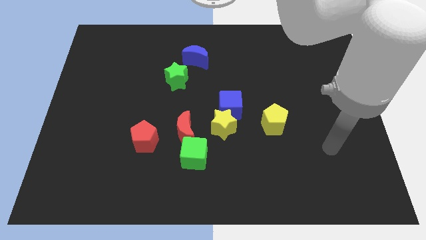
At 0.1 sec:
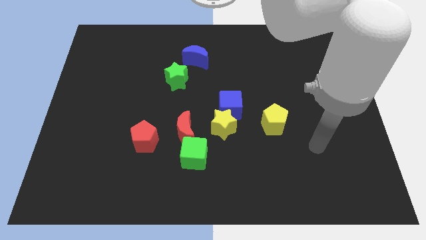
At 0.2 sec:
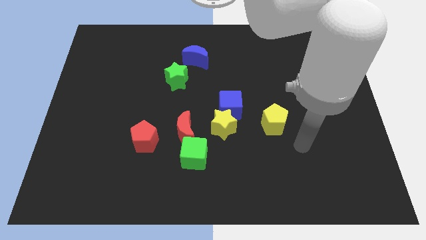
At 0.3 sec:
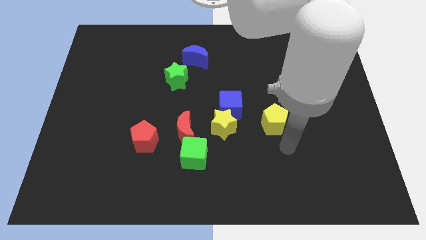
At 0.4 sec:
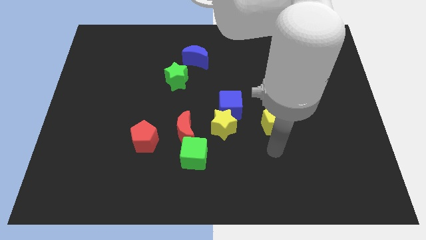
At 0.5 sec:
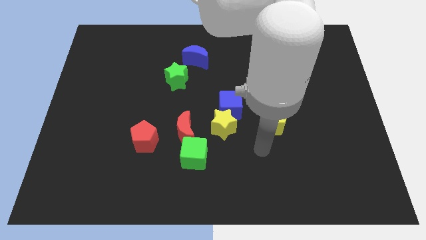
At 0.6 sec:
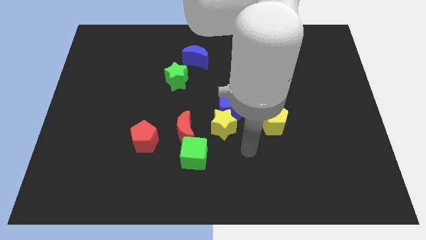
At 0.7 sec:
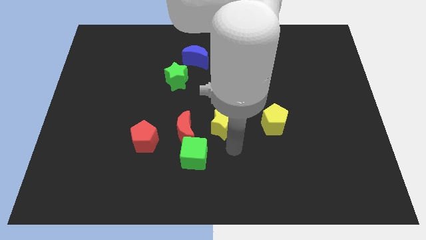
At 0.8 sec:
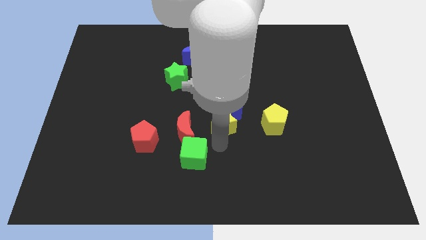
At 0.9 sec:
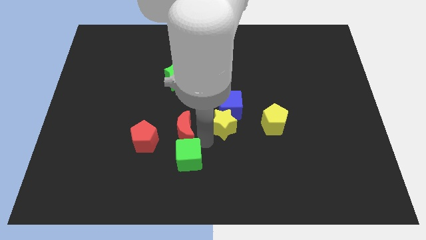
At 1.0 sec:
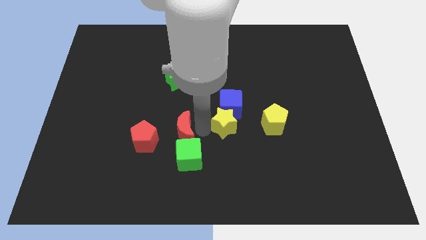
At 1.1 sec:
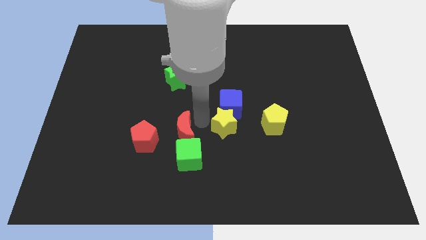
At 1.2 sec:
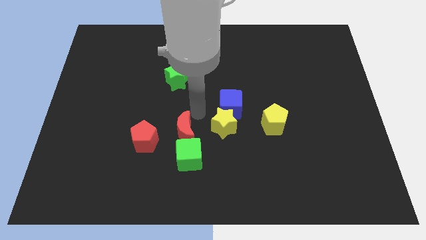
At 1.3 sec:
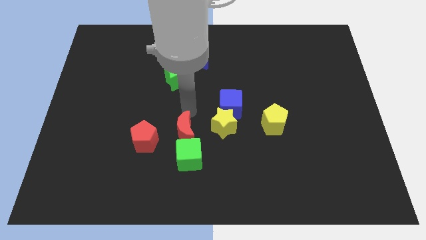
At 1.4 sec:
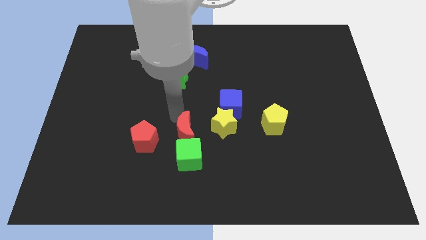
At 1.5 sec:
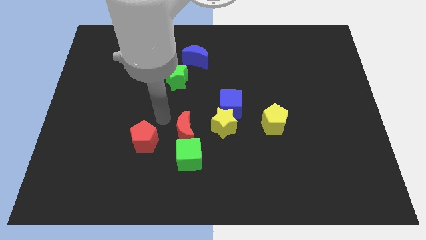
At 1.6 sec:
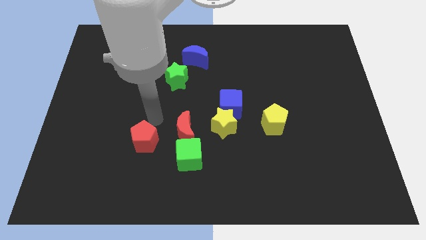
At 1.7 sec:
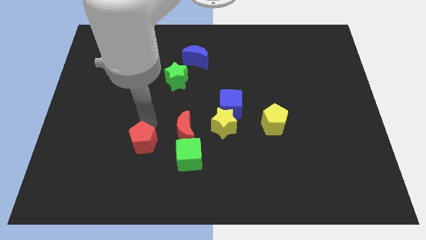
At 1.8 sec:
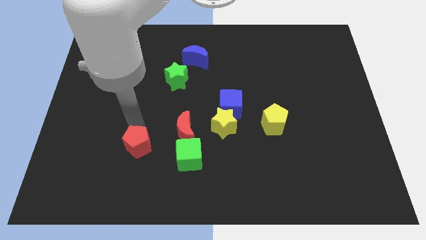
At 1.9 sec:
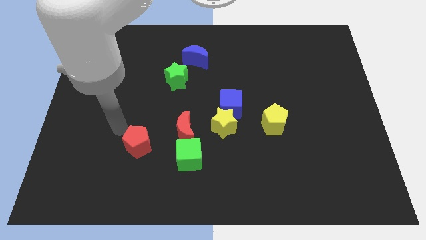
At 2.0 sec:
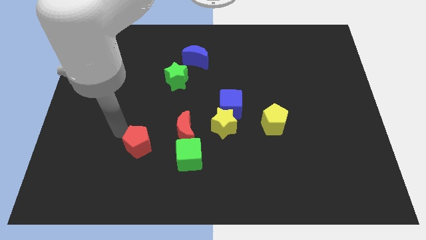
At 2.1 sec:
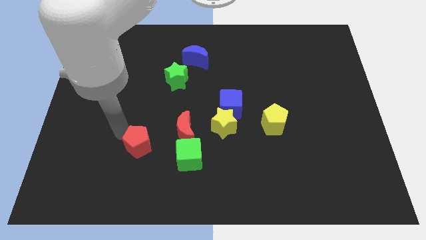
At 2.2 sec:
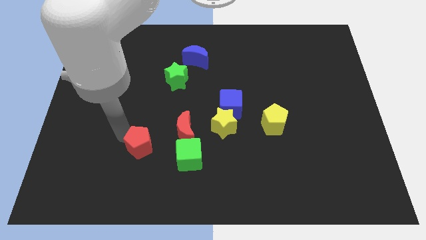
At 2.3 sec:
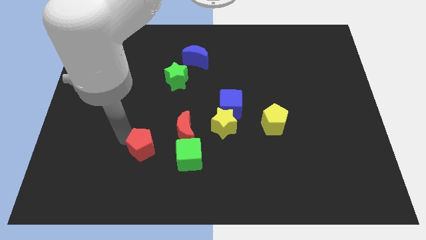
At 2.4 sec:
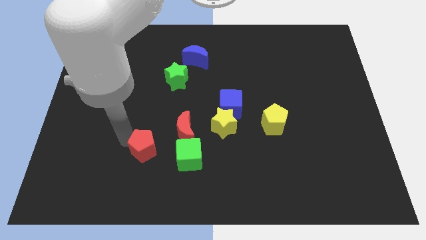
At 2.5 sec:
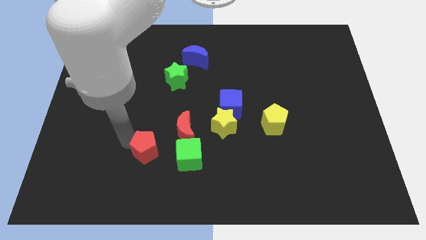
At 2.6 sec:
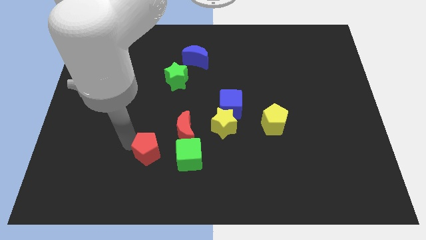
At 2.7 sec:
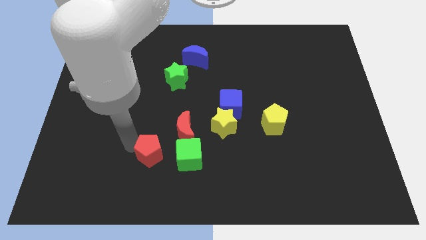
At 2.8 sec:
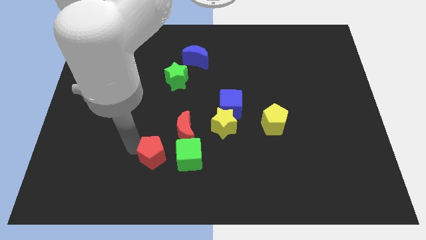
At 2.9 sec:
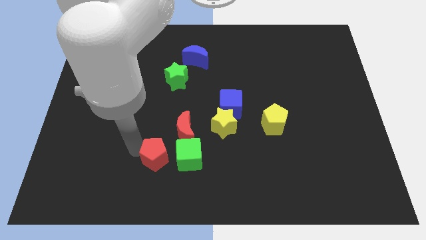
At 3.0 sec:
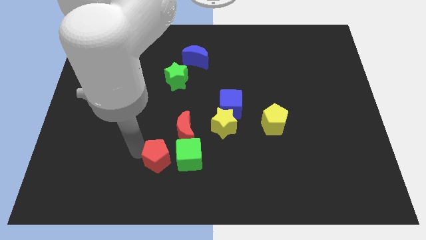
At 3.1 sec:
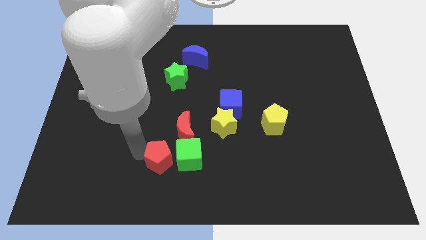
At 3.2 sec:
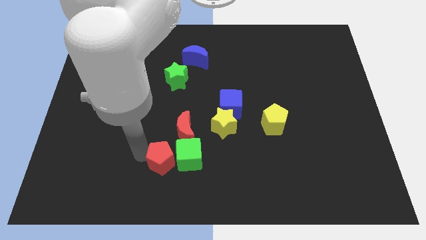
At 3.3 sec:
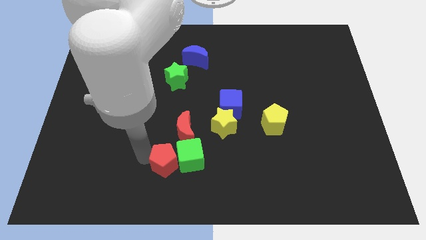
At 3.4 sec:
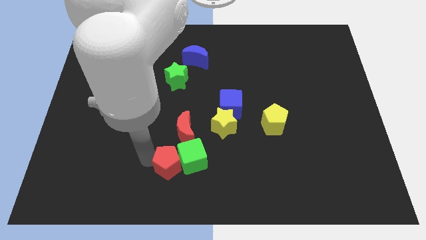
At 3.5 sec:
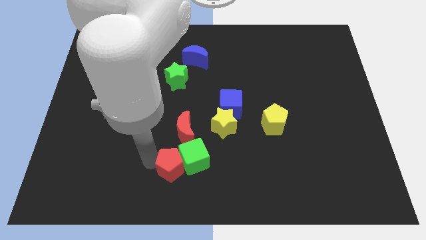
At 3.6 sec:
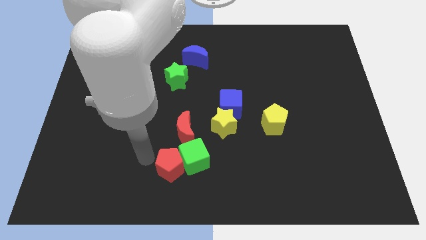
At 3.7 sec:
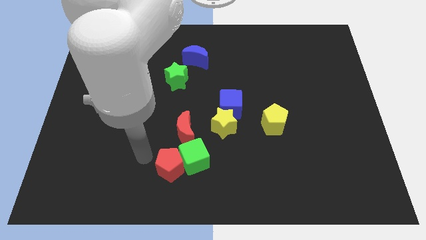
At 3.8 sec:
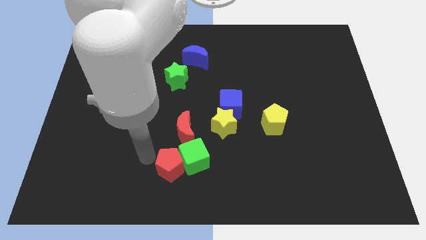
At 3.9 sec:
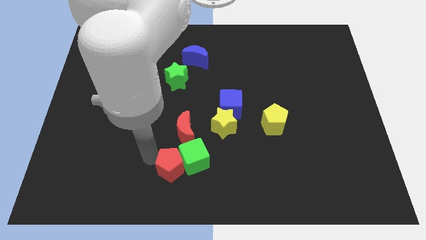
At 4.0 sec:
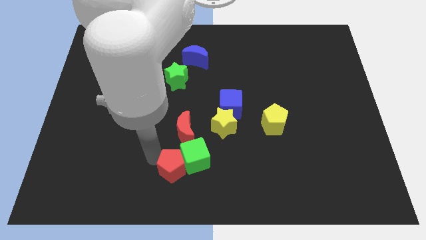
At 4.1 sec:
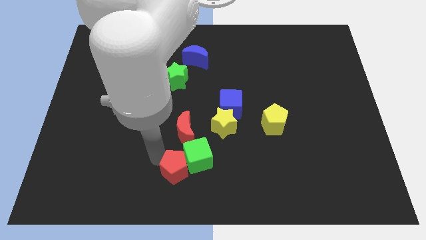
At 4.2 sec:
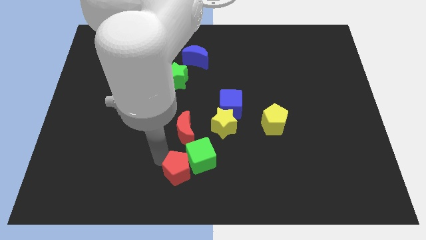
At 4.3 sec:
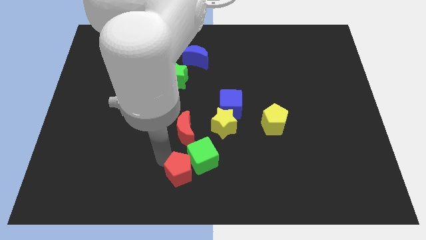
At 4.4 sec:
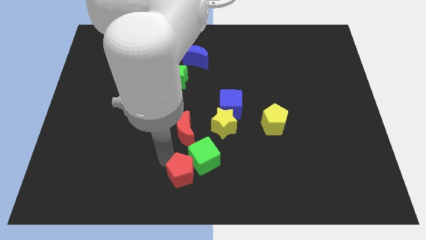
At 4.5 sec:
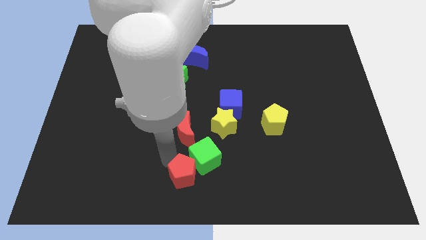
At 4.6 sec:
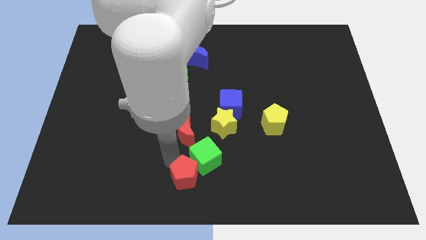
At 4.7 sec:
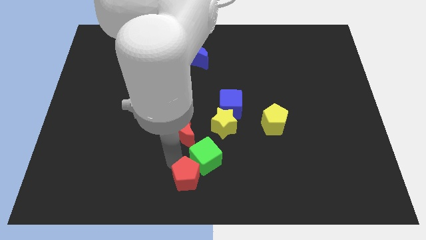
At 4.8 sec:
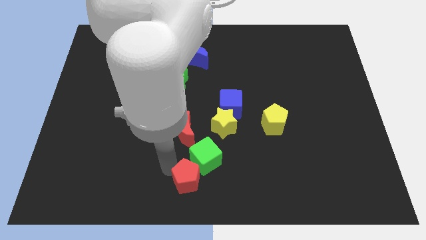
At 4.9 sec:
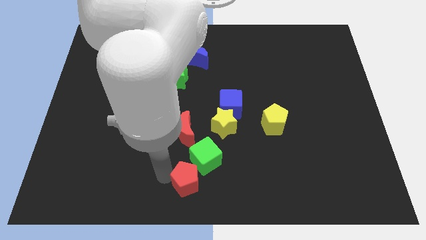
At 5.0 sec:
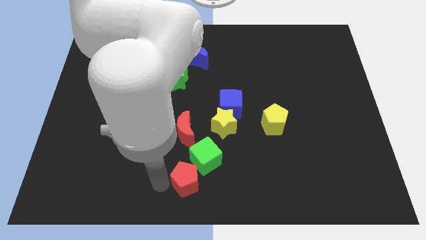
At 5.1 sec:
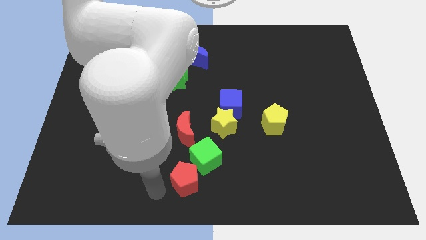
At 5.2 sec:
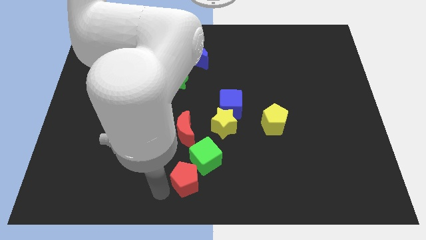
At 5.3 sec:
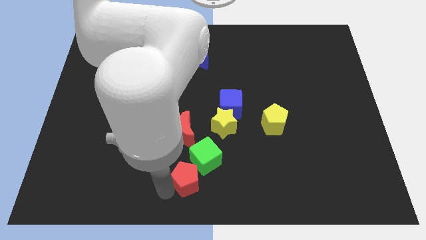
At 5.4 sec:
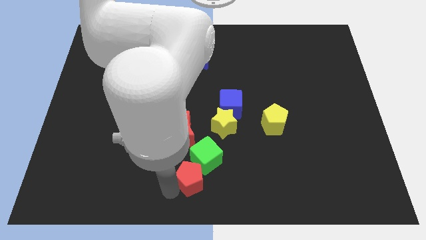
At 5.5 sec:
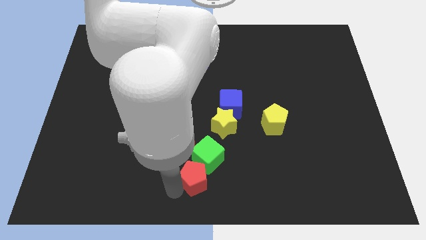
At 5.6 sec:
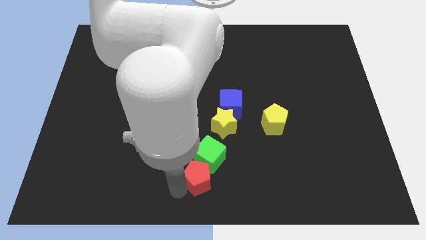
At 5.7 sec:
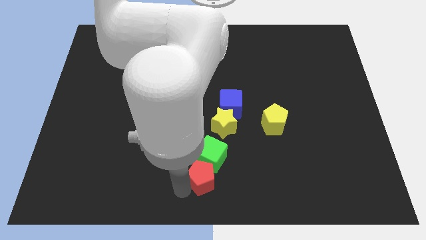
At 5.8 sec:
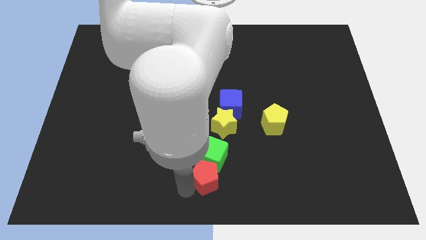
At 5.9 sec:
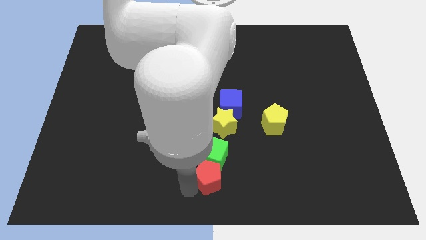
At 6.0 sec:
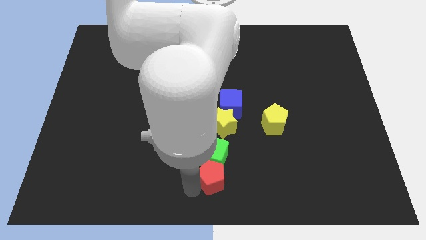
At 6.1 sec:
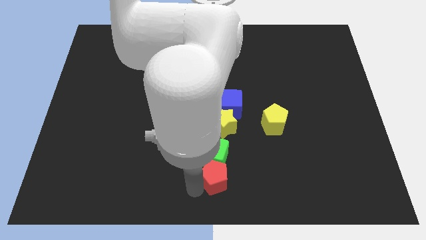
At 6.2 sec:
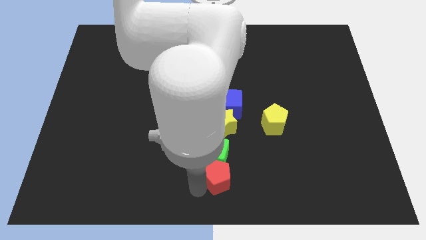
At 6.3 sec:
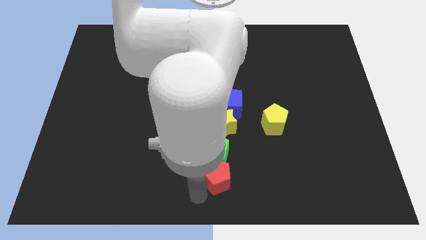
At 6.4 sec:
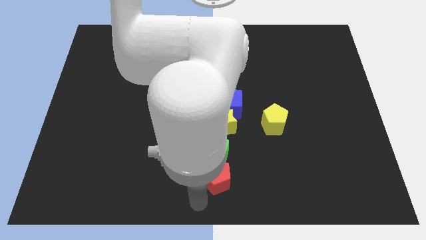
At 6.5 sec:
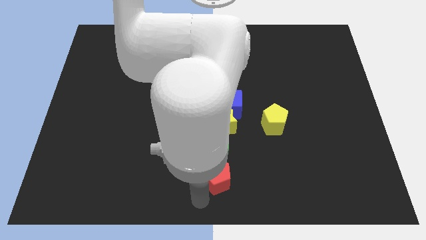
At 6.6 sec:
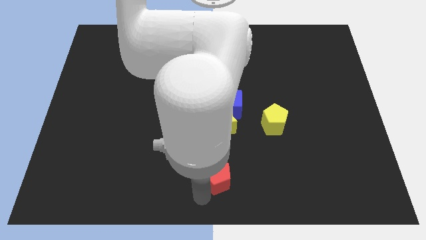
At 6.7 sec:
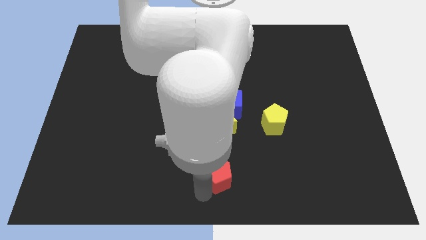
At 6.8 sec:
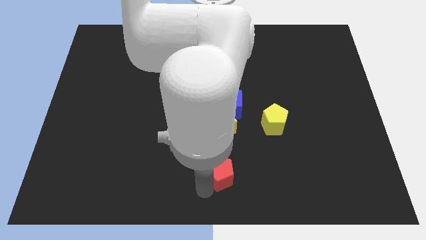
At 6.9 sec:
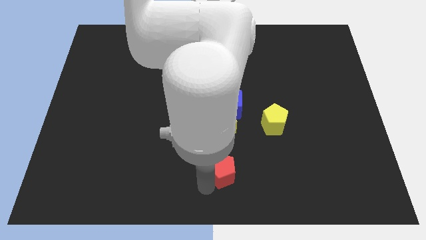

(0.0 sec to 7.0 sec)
move the red pentagon to the bottom right of the red moon

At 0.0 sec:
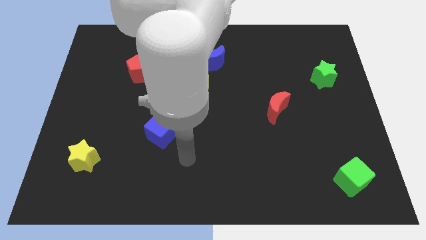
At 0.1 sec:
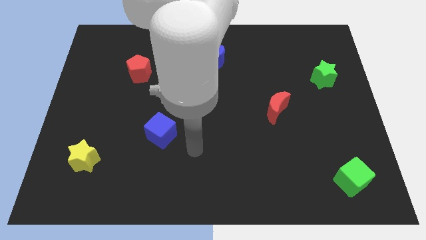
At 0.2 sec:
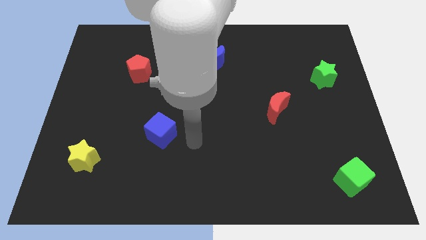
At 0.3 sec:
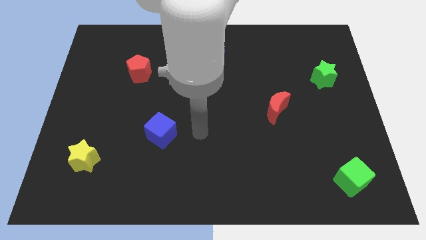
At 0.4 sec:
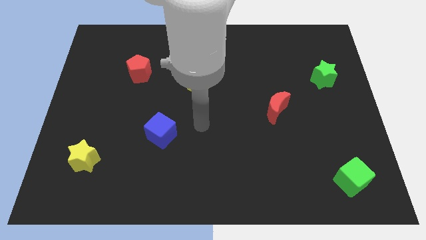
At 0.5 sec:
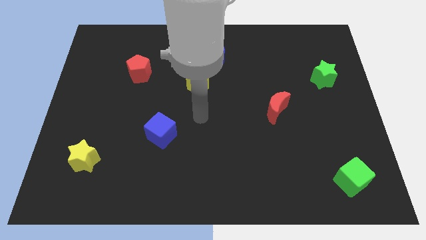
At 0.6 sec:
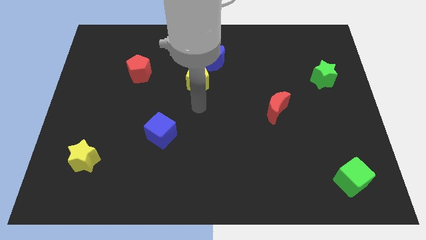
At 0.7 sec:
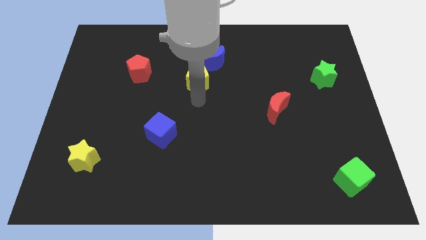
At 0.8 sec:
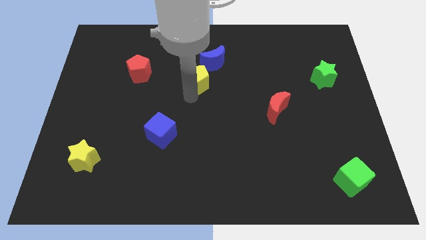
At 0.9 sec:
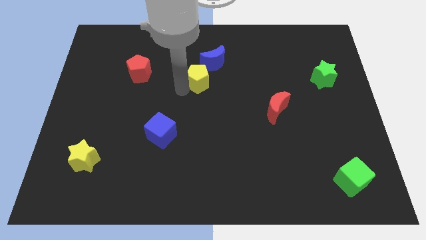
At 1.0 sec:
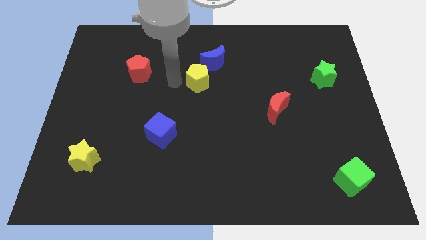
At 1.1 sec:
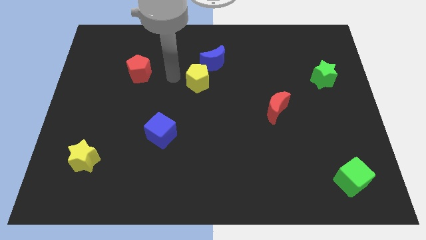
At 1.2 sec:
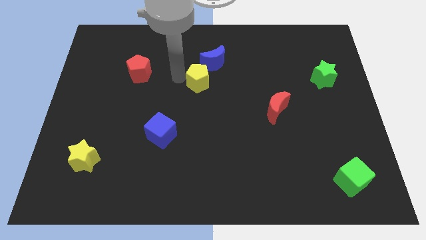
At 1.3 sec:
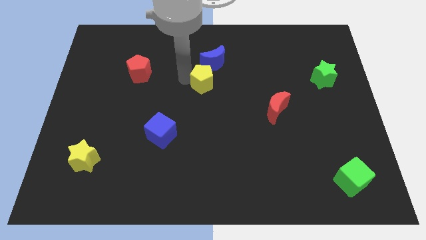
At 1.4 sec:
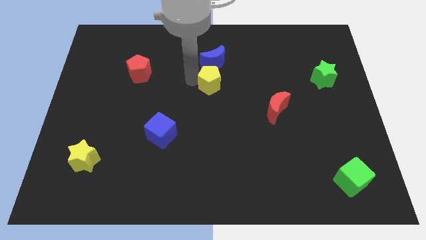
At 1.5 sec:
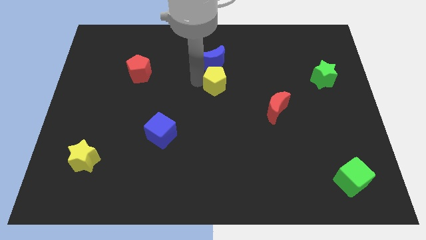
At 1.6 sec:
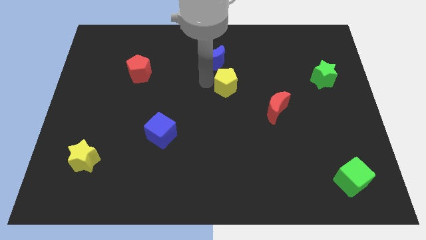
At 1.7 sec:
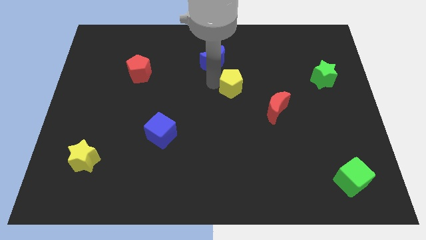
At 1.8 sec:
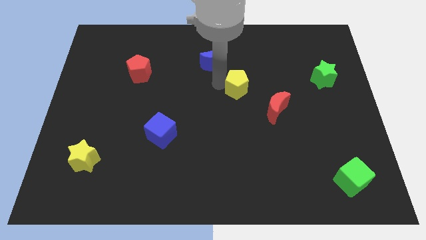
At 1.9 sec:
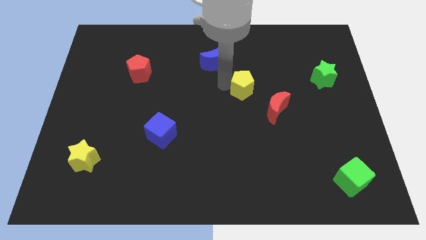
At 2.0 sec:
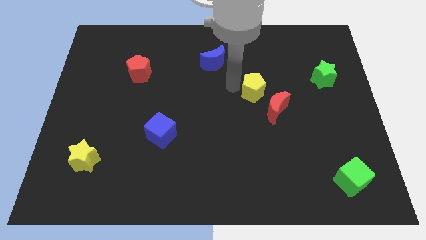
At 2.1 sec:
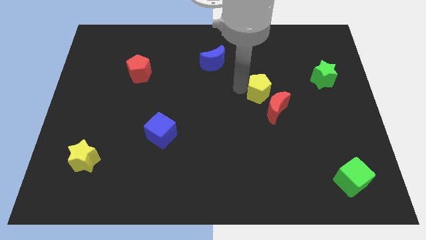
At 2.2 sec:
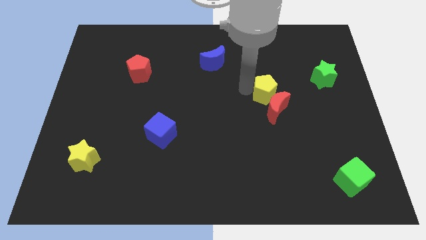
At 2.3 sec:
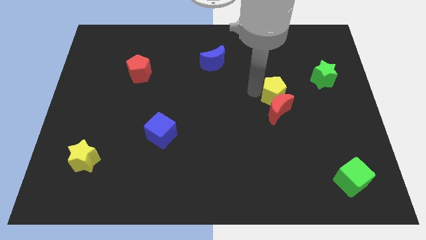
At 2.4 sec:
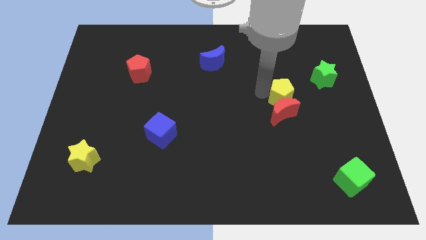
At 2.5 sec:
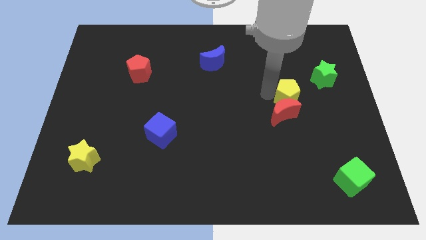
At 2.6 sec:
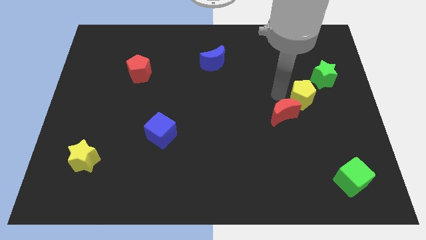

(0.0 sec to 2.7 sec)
push the yellow pentagon to the right of the red moon
